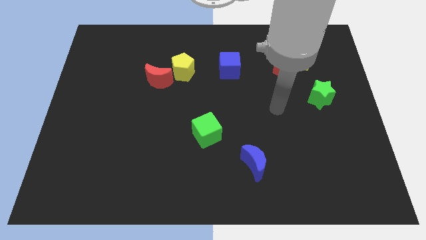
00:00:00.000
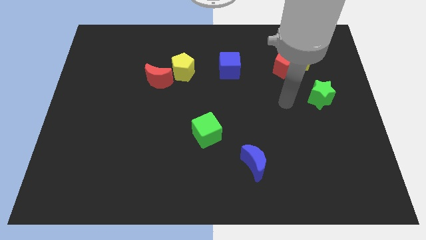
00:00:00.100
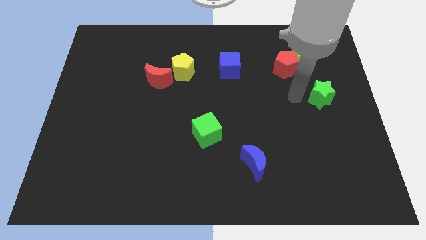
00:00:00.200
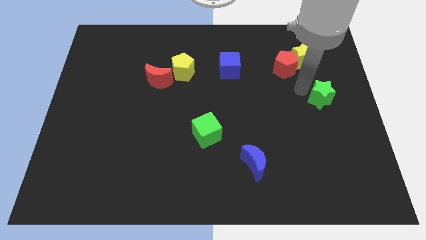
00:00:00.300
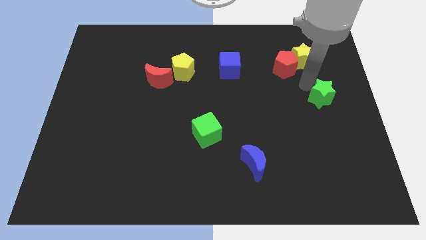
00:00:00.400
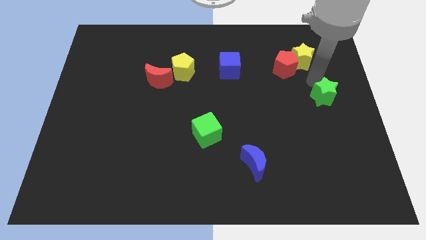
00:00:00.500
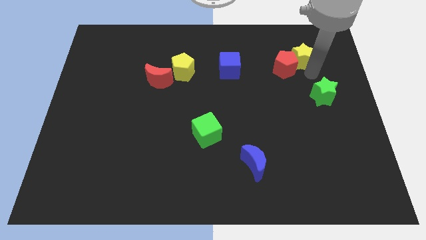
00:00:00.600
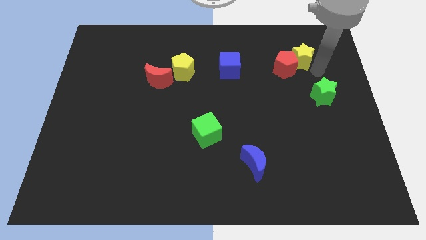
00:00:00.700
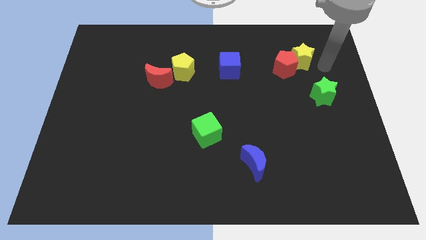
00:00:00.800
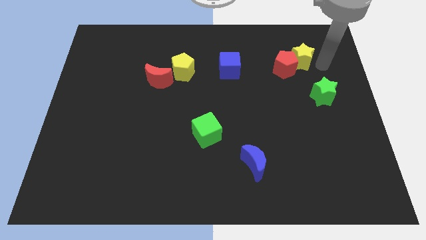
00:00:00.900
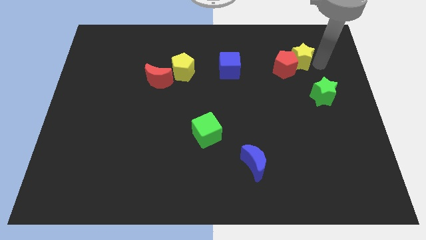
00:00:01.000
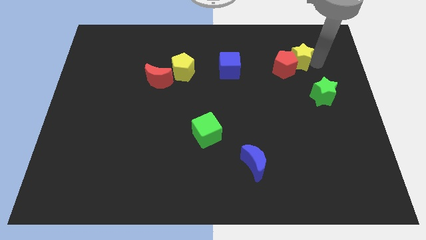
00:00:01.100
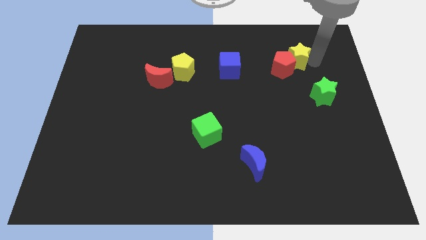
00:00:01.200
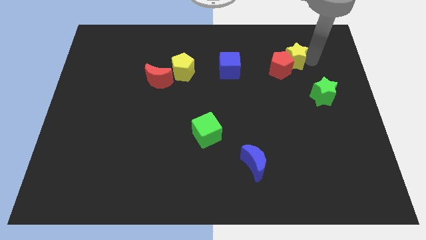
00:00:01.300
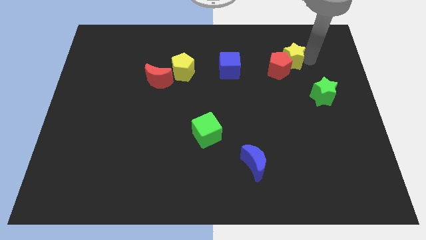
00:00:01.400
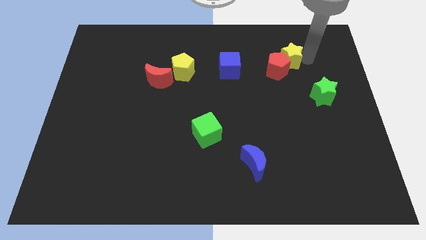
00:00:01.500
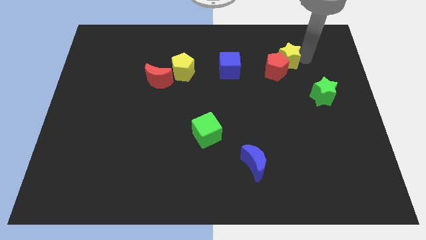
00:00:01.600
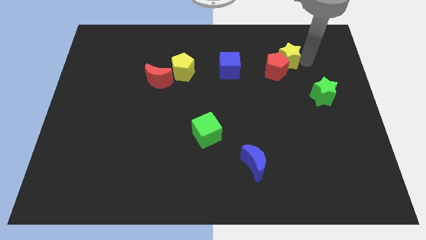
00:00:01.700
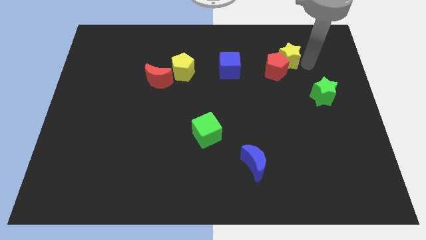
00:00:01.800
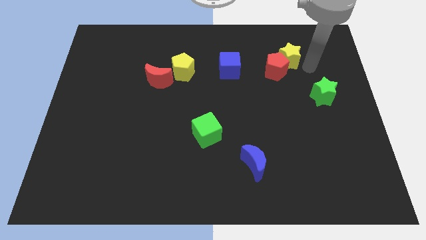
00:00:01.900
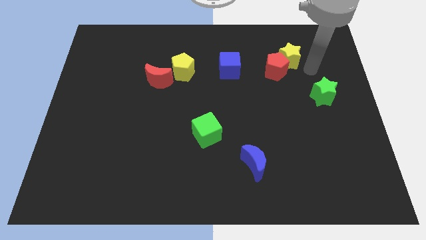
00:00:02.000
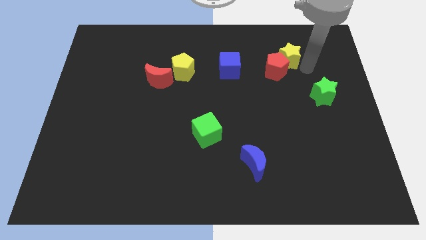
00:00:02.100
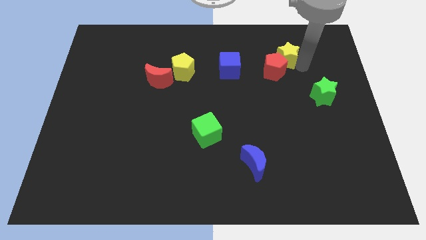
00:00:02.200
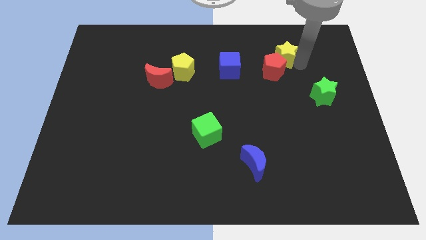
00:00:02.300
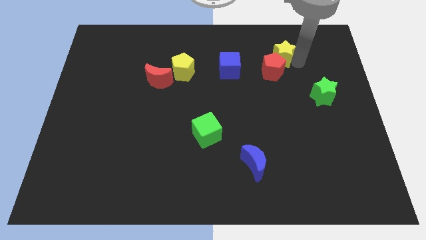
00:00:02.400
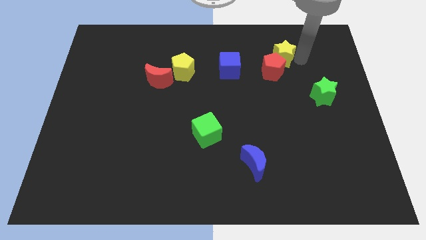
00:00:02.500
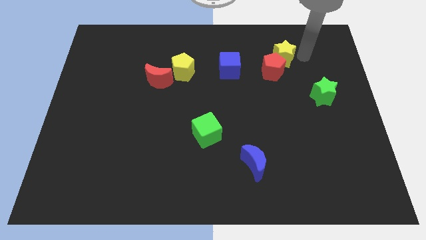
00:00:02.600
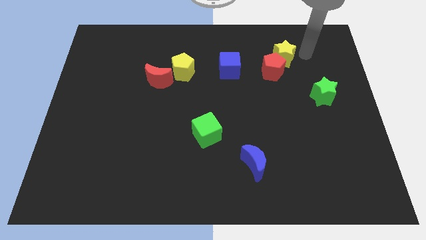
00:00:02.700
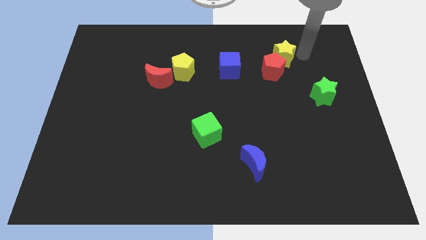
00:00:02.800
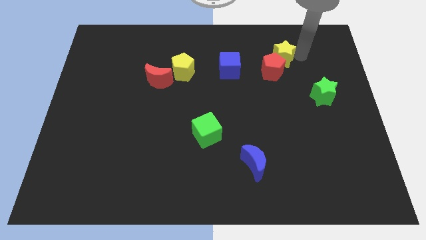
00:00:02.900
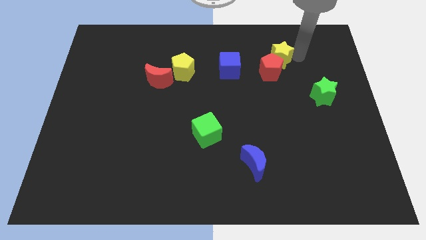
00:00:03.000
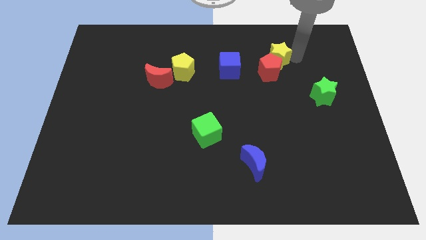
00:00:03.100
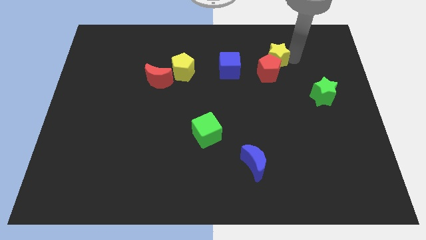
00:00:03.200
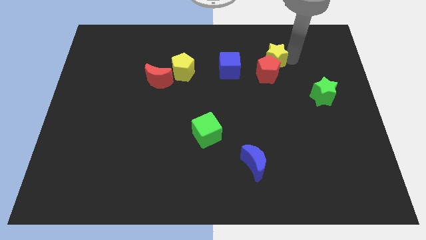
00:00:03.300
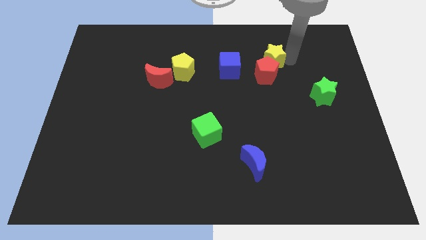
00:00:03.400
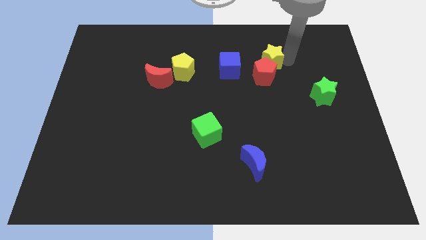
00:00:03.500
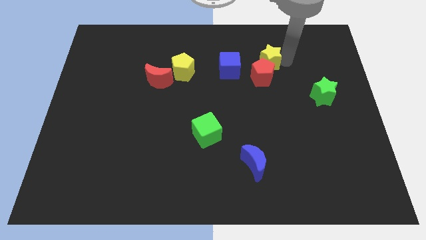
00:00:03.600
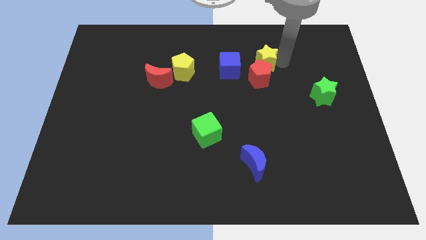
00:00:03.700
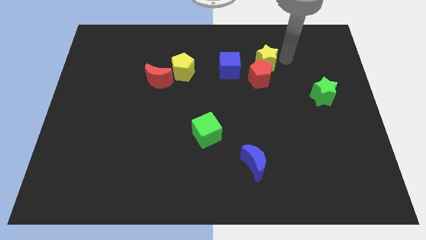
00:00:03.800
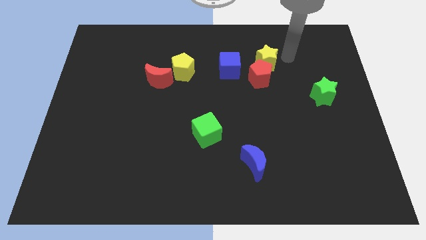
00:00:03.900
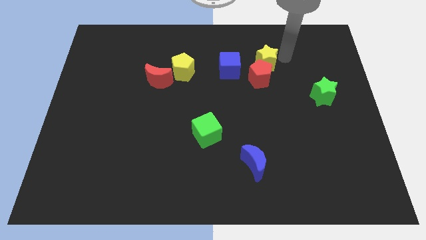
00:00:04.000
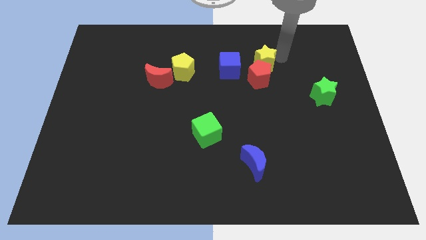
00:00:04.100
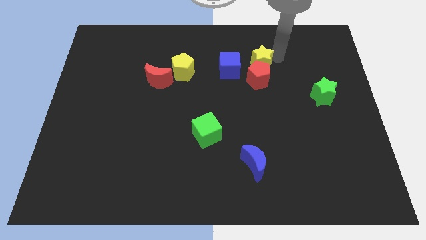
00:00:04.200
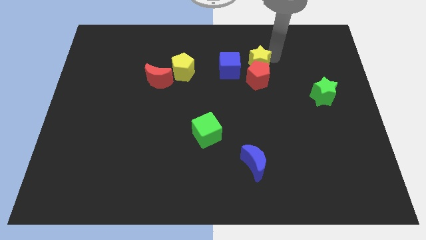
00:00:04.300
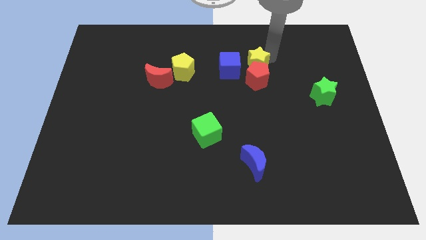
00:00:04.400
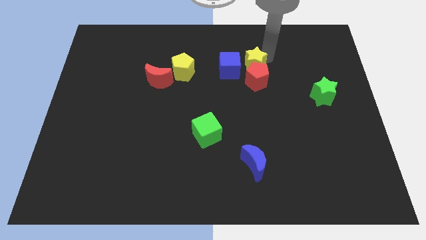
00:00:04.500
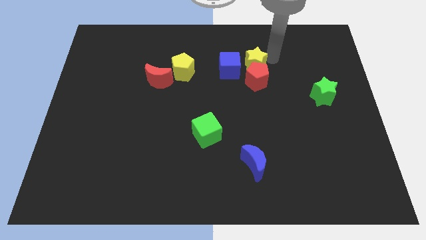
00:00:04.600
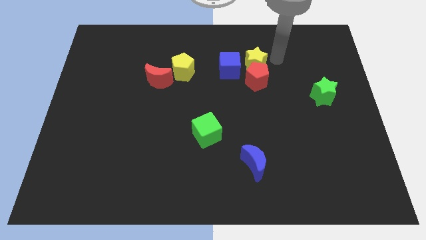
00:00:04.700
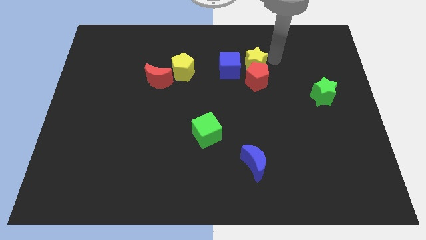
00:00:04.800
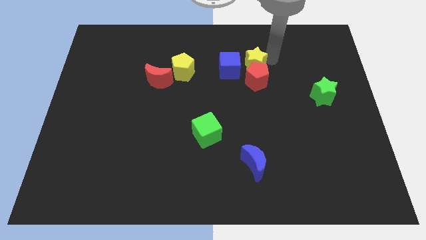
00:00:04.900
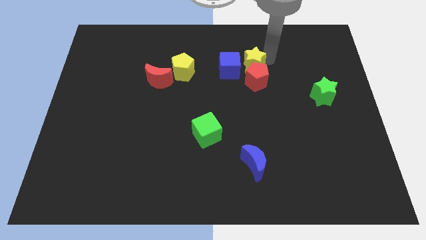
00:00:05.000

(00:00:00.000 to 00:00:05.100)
slide the yellow star next to the blue cube

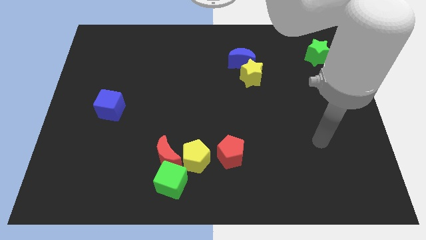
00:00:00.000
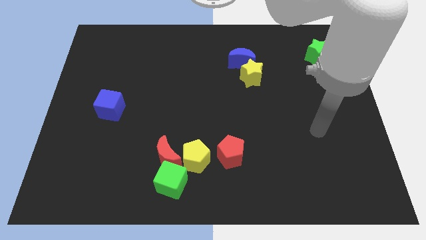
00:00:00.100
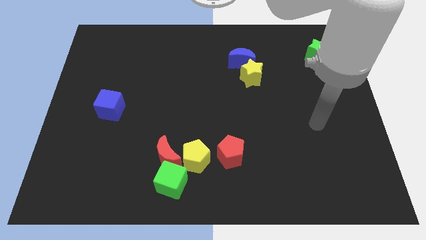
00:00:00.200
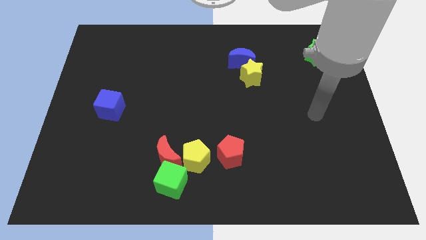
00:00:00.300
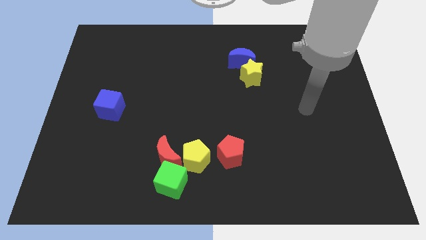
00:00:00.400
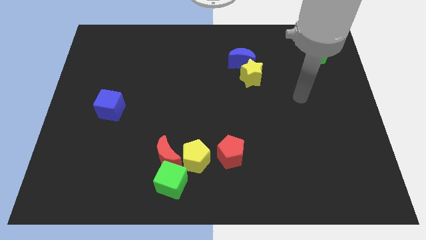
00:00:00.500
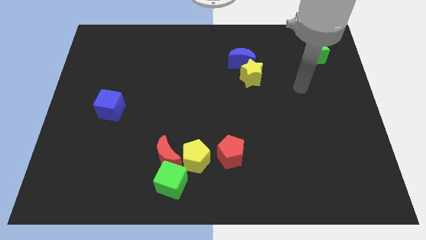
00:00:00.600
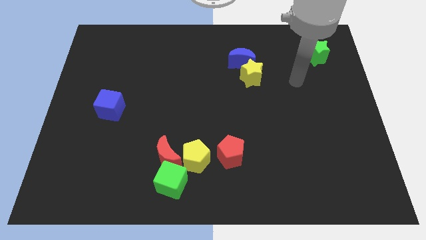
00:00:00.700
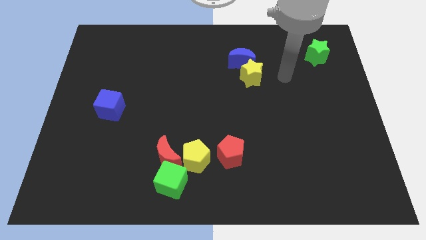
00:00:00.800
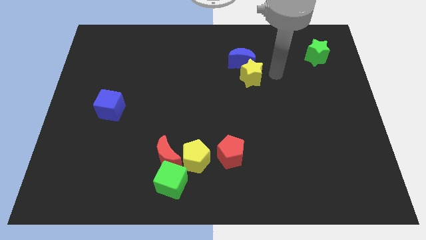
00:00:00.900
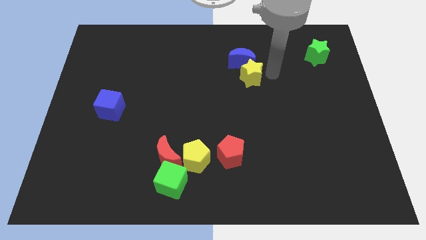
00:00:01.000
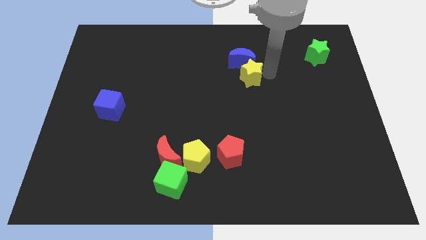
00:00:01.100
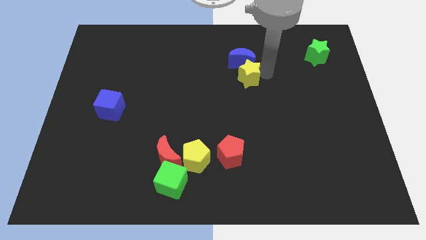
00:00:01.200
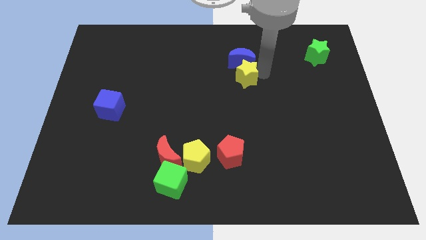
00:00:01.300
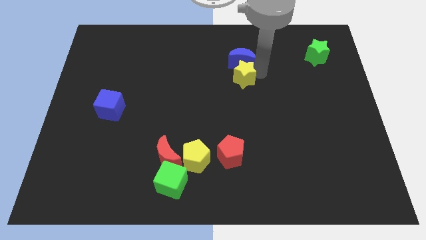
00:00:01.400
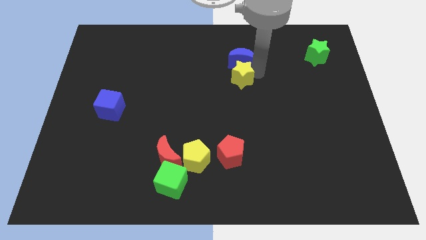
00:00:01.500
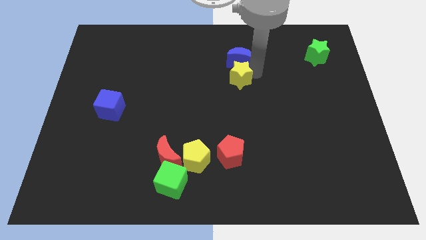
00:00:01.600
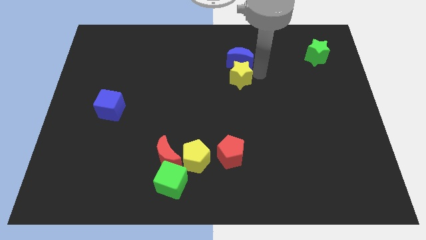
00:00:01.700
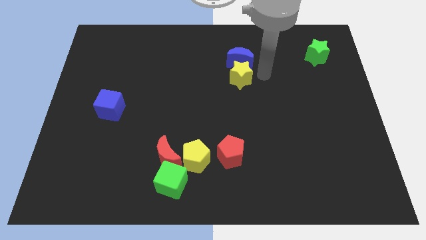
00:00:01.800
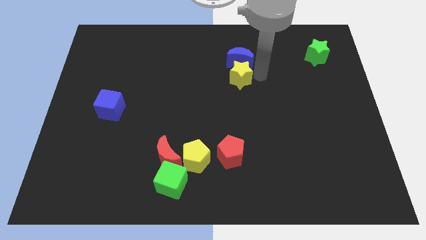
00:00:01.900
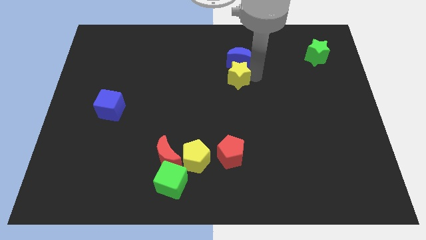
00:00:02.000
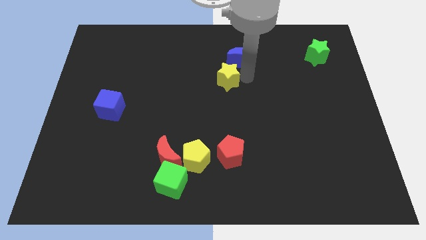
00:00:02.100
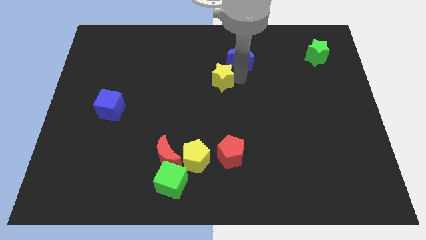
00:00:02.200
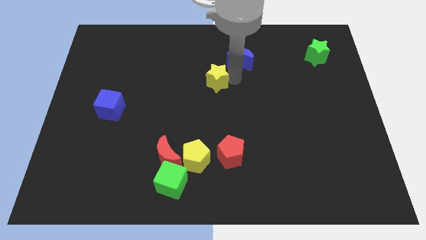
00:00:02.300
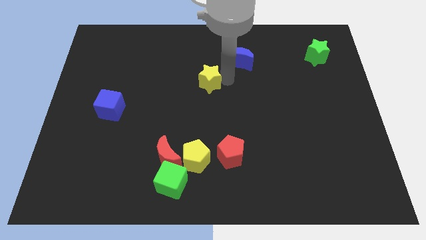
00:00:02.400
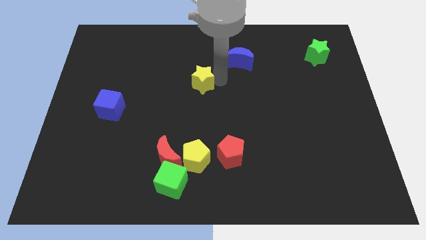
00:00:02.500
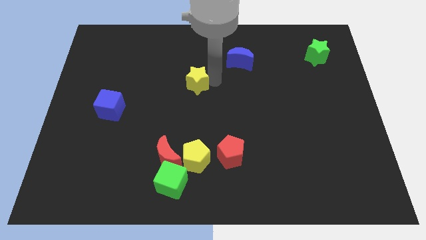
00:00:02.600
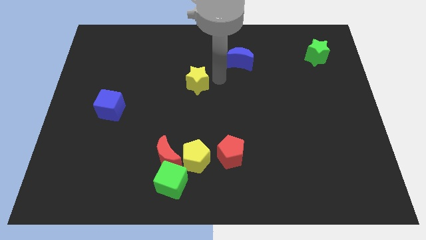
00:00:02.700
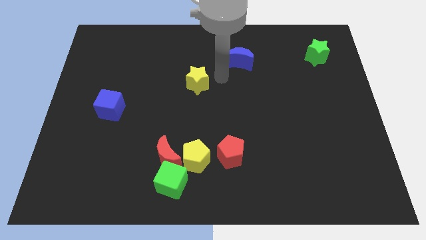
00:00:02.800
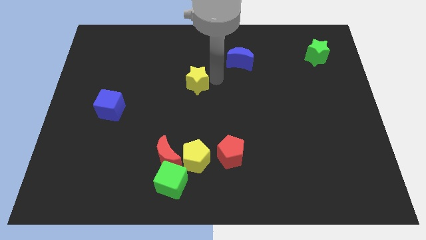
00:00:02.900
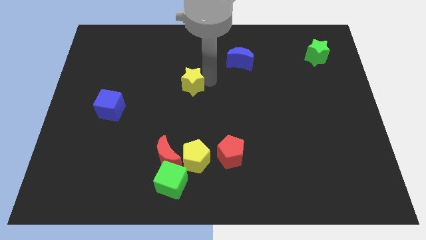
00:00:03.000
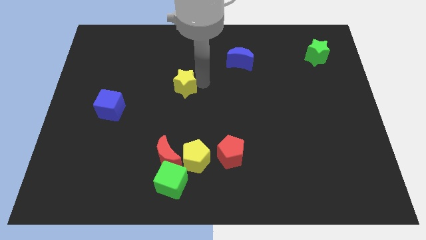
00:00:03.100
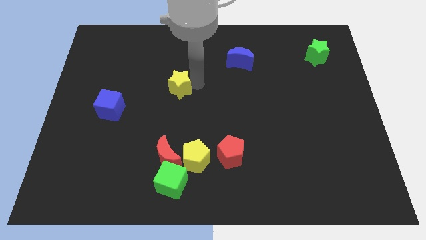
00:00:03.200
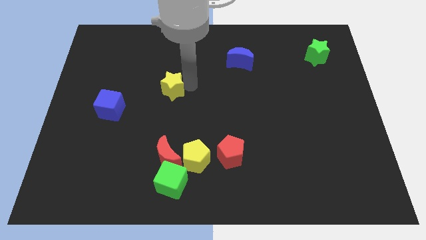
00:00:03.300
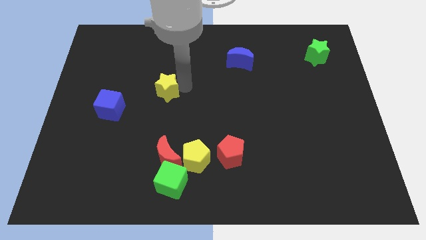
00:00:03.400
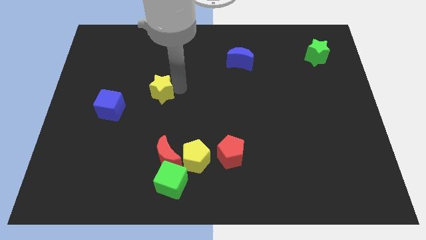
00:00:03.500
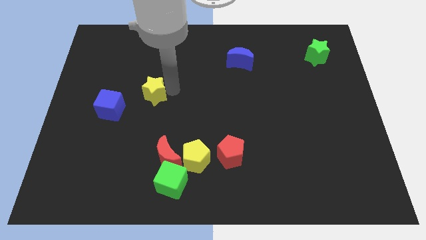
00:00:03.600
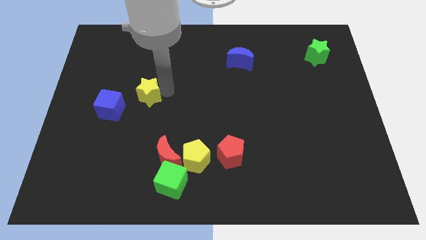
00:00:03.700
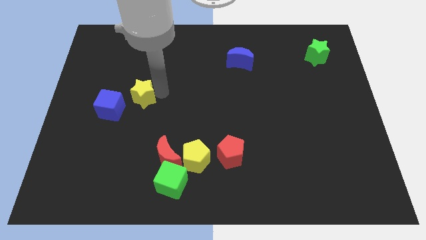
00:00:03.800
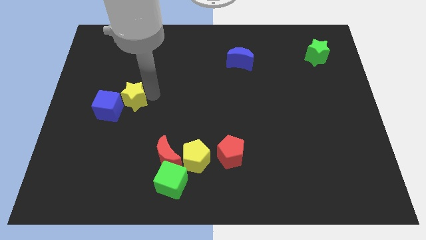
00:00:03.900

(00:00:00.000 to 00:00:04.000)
slide the yellow star close to the blue cube
